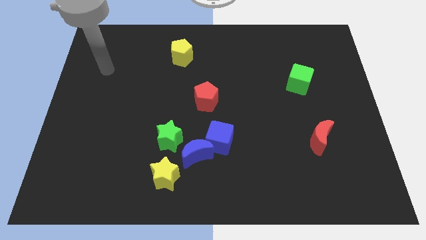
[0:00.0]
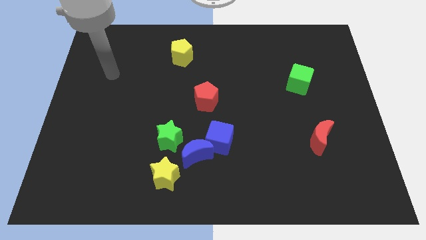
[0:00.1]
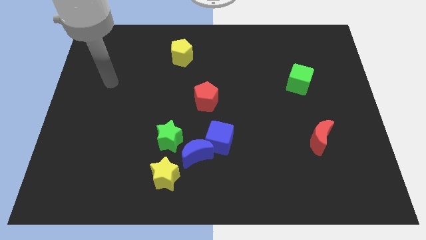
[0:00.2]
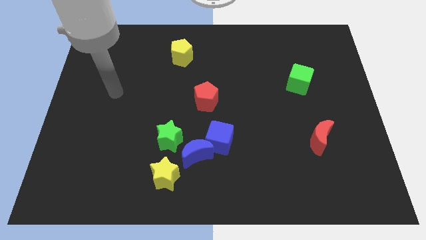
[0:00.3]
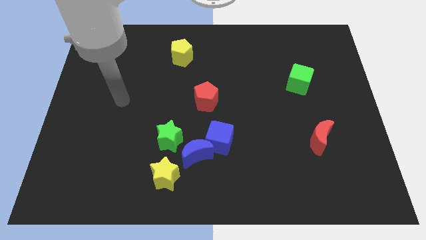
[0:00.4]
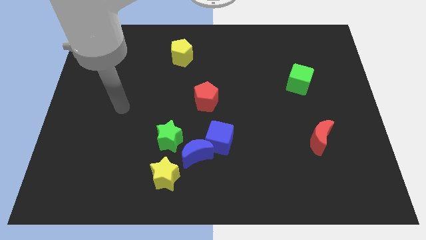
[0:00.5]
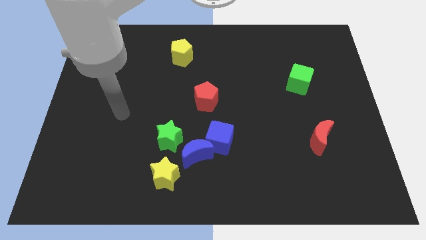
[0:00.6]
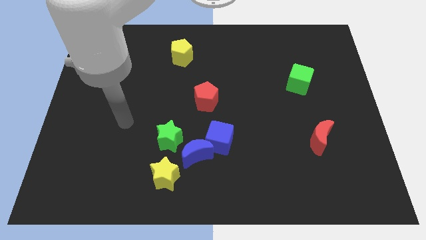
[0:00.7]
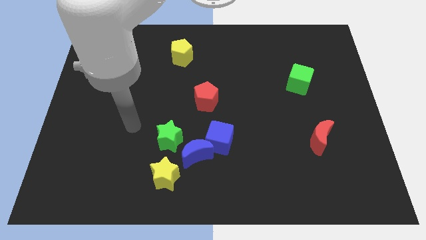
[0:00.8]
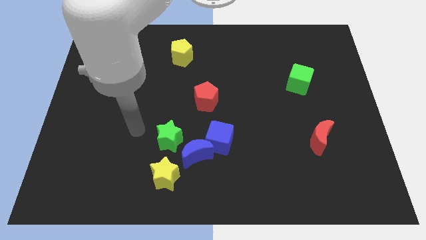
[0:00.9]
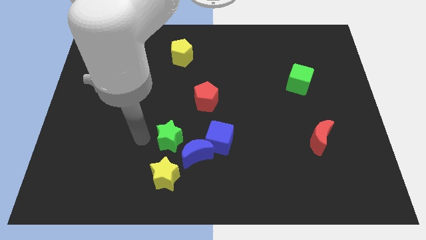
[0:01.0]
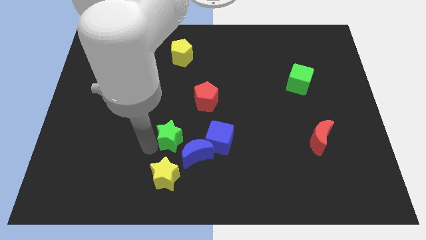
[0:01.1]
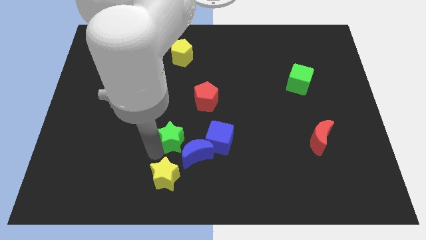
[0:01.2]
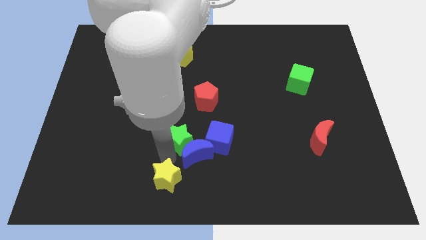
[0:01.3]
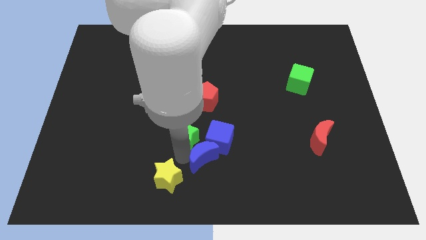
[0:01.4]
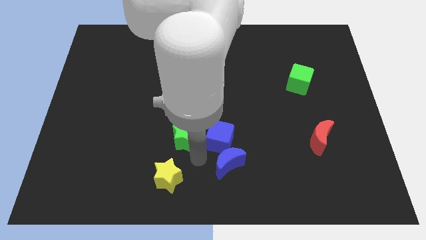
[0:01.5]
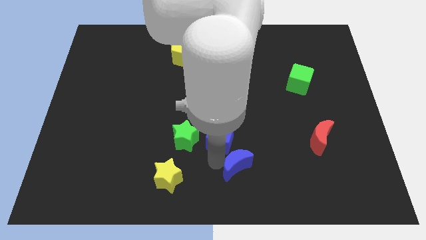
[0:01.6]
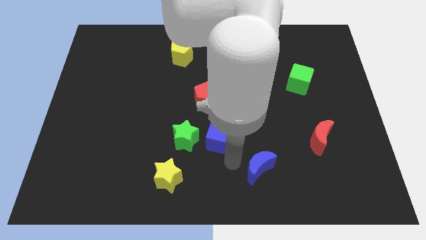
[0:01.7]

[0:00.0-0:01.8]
move the blue cube away from the blue moon

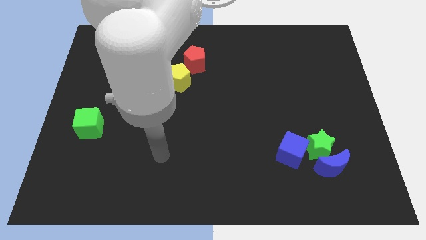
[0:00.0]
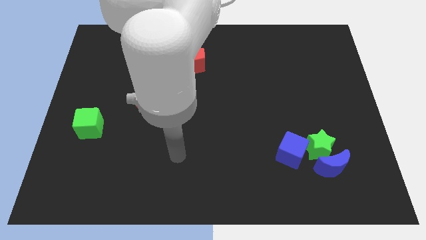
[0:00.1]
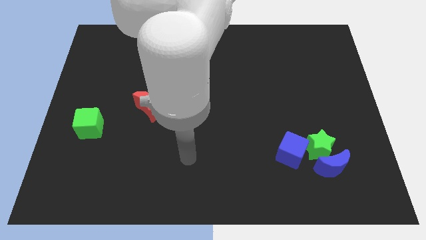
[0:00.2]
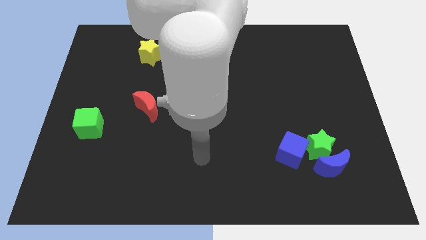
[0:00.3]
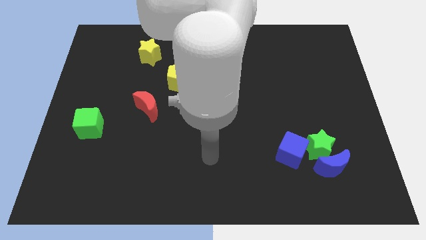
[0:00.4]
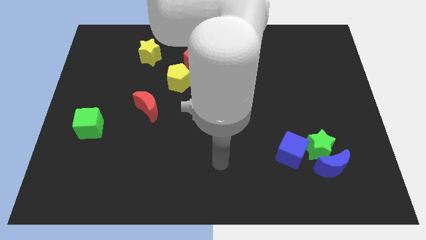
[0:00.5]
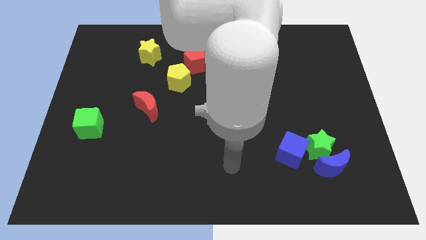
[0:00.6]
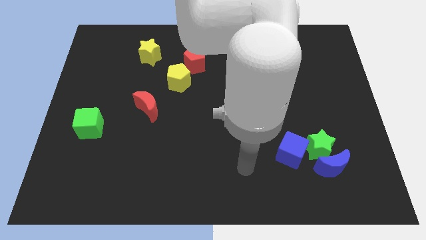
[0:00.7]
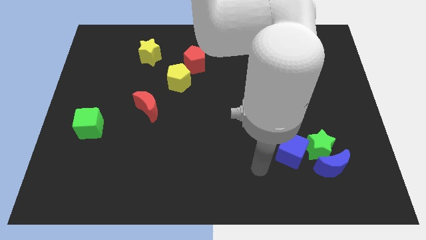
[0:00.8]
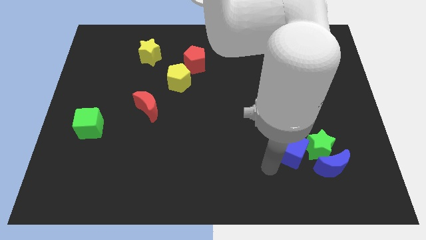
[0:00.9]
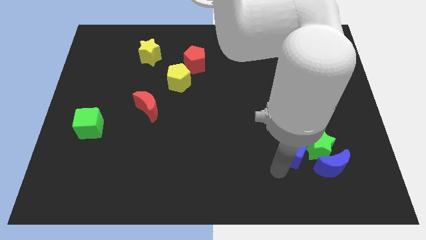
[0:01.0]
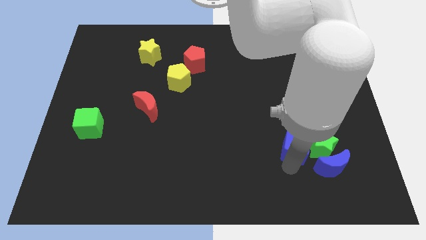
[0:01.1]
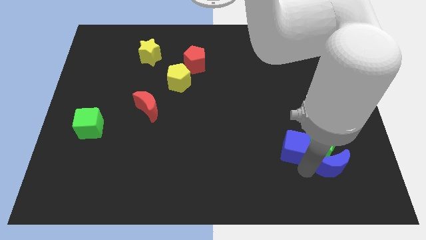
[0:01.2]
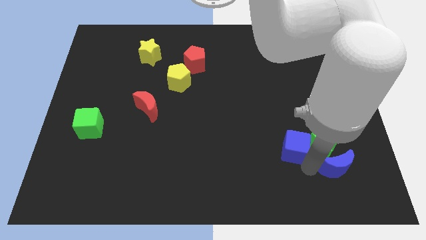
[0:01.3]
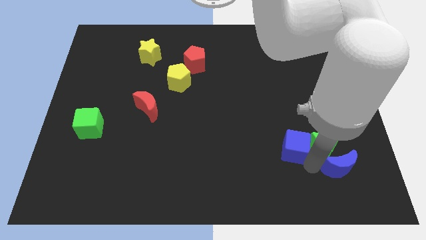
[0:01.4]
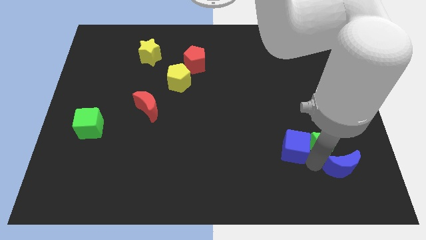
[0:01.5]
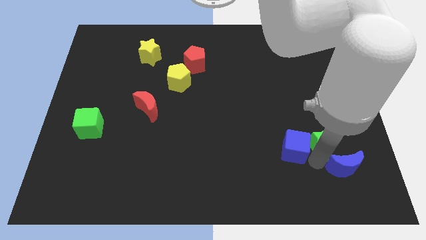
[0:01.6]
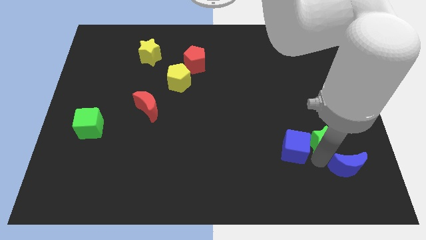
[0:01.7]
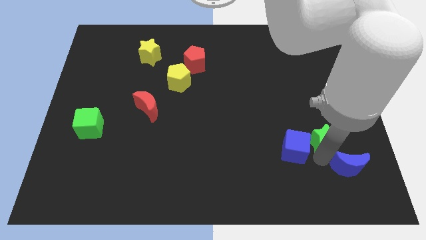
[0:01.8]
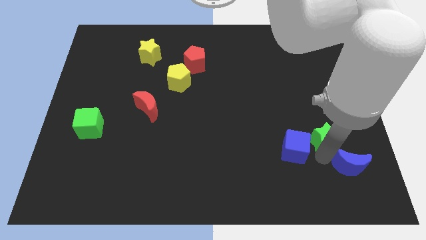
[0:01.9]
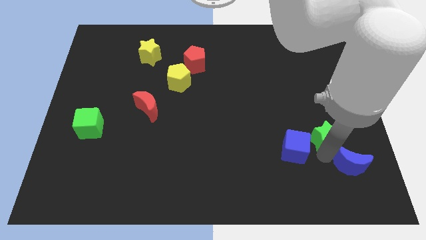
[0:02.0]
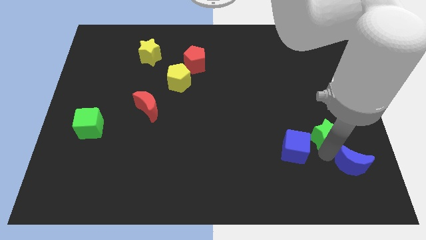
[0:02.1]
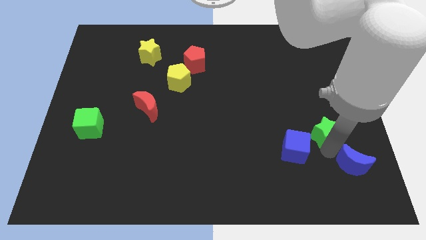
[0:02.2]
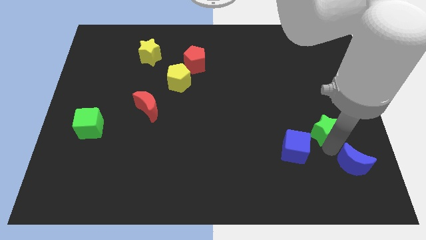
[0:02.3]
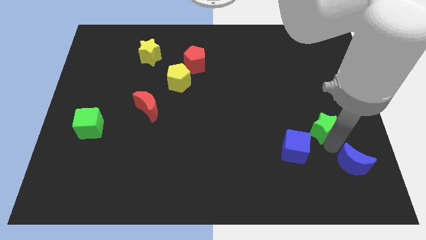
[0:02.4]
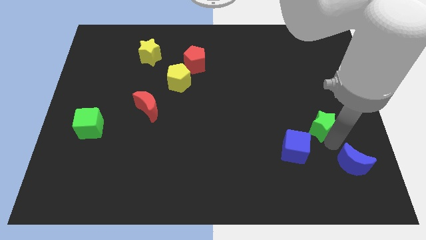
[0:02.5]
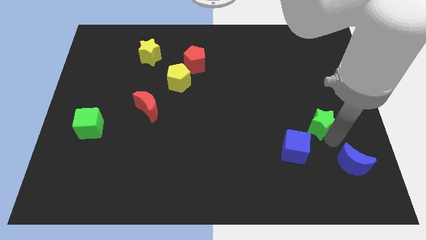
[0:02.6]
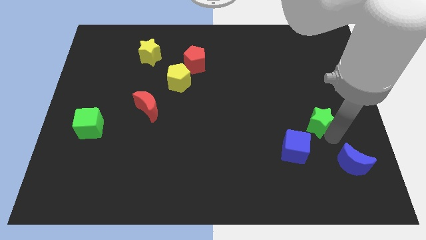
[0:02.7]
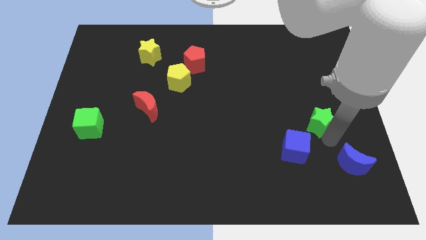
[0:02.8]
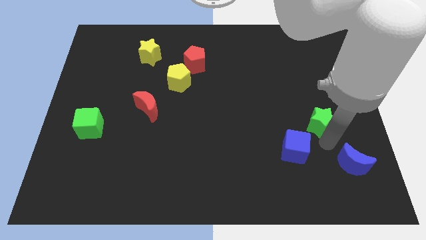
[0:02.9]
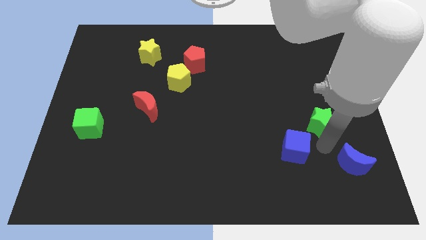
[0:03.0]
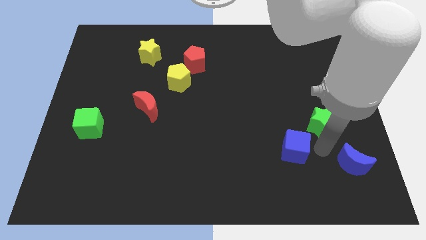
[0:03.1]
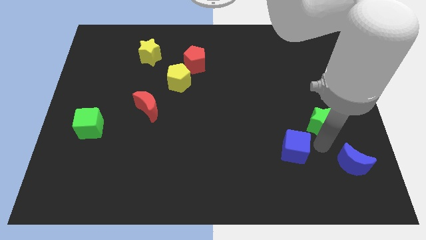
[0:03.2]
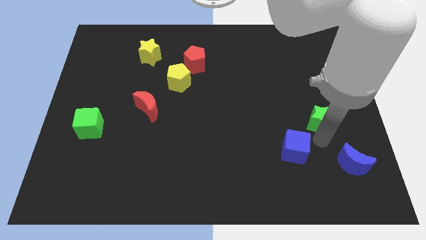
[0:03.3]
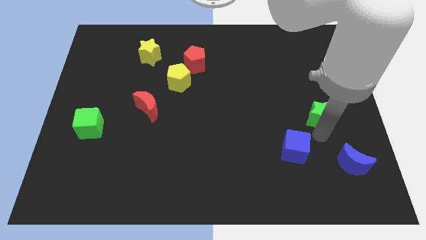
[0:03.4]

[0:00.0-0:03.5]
separate the green star from the blue moon and blue cube

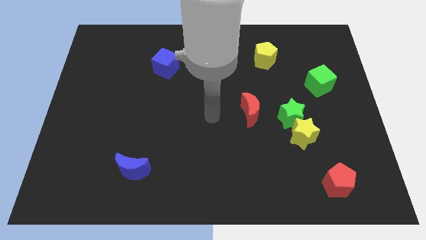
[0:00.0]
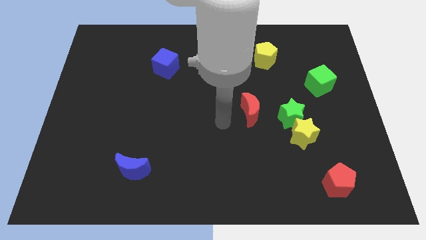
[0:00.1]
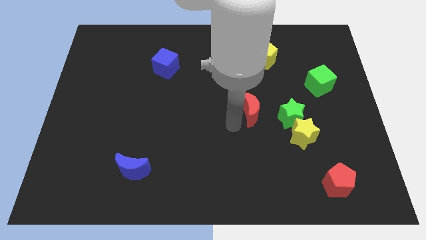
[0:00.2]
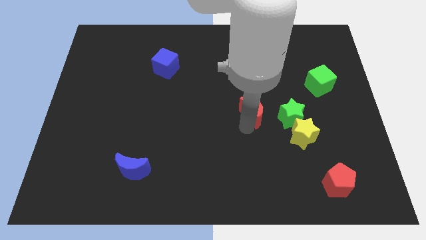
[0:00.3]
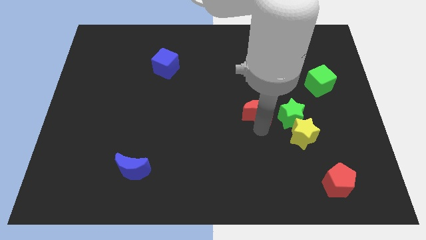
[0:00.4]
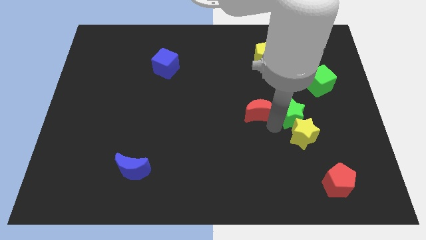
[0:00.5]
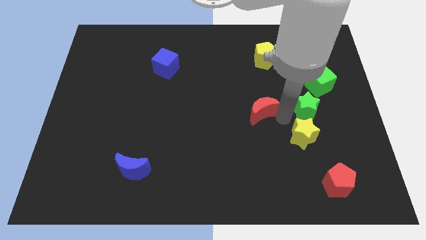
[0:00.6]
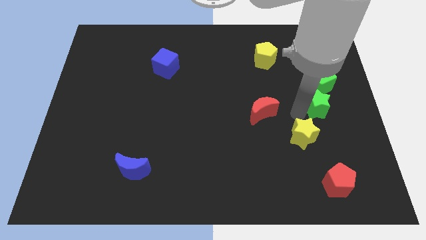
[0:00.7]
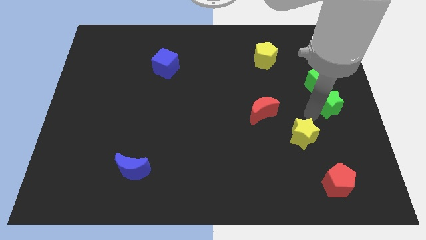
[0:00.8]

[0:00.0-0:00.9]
separate the yellow star from the green star

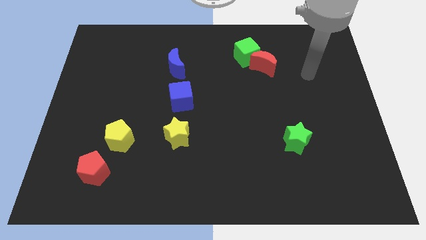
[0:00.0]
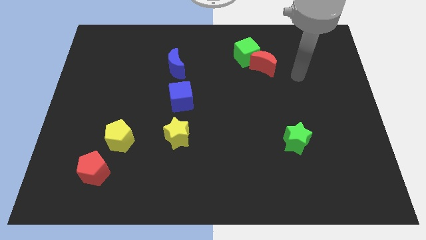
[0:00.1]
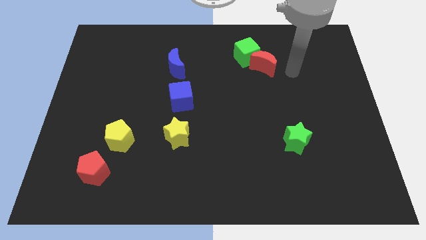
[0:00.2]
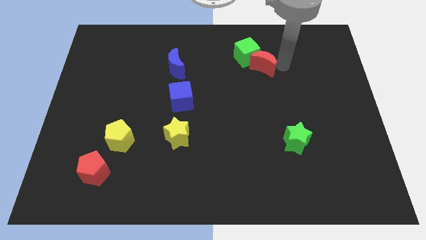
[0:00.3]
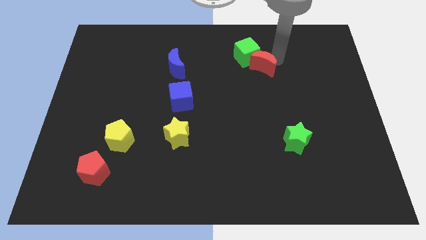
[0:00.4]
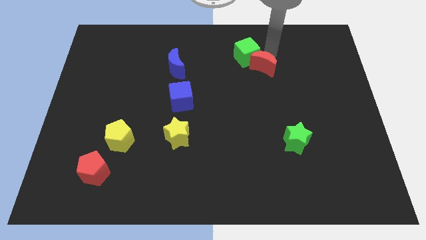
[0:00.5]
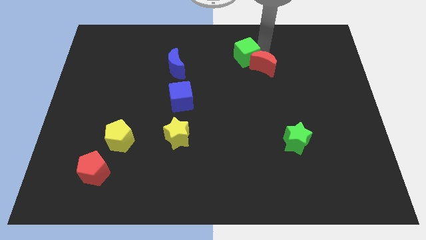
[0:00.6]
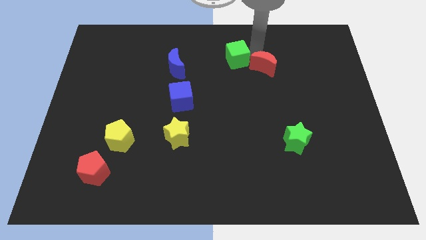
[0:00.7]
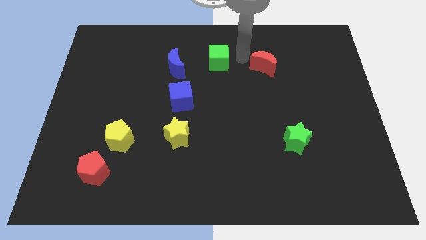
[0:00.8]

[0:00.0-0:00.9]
move the red moon away from the green cube

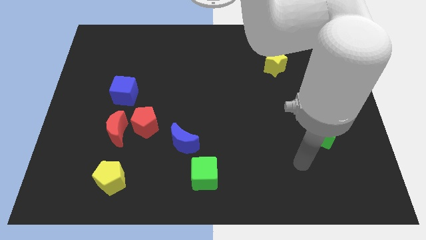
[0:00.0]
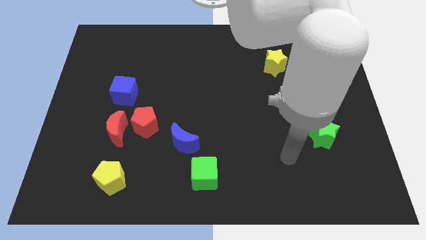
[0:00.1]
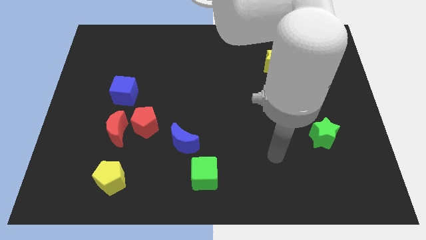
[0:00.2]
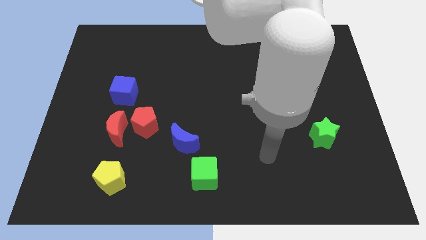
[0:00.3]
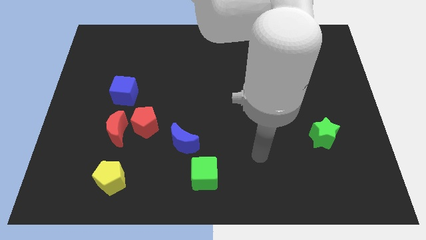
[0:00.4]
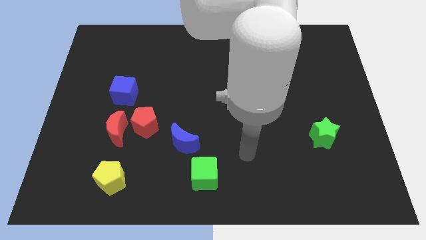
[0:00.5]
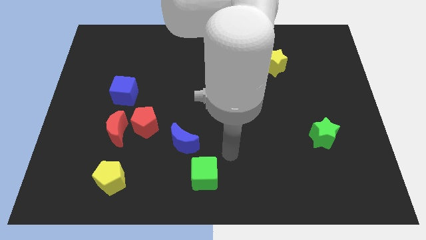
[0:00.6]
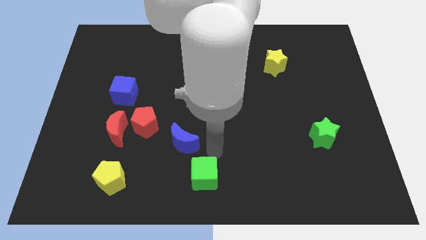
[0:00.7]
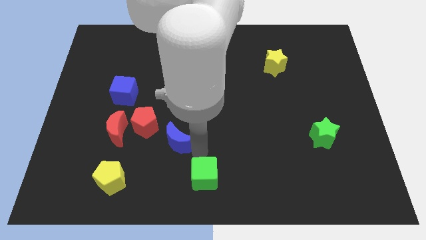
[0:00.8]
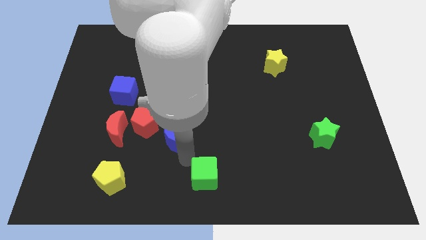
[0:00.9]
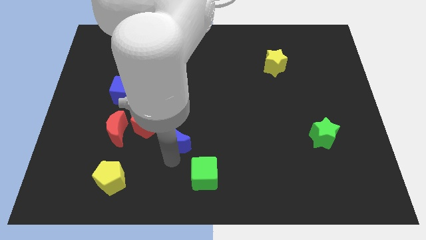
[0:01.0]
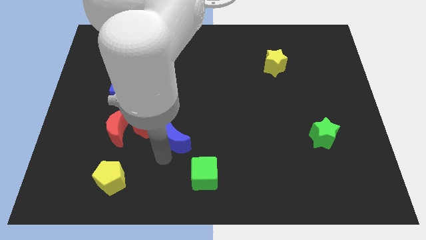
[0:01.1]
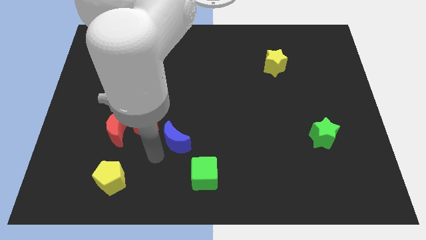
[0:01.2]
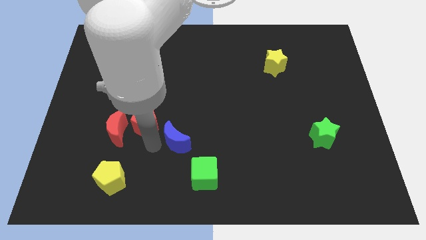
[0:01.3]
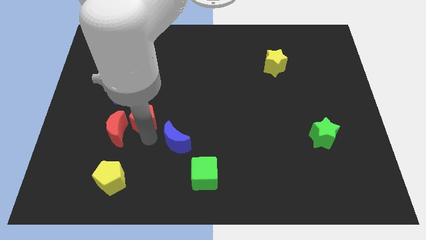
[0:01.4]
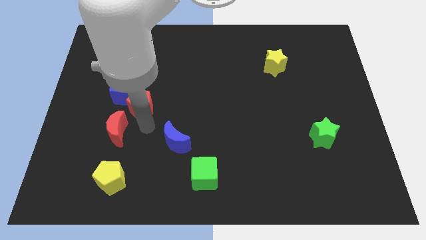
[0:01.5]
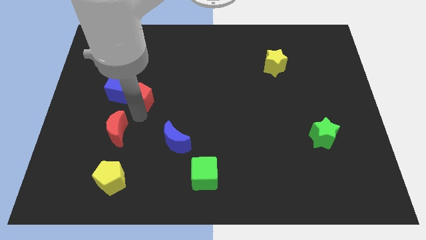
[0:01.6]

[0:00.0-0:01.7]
separate the red moon from the red pentagon

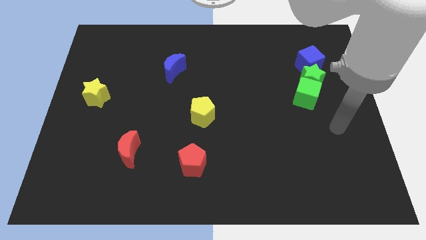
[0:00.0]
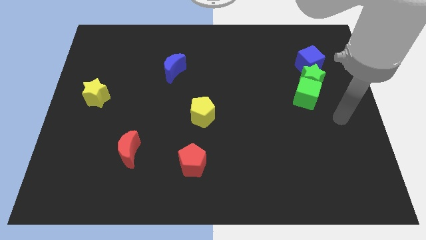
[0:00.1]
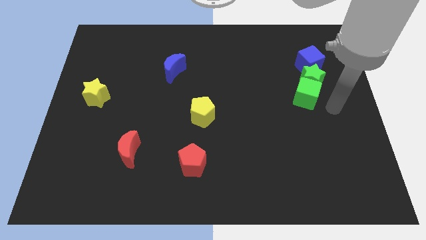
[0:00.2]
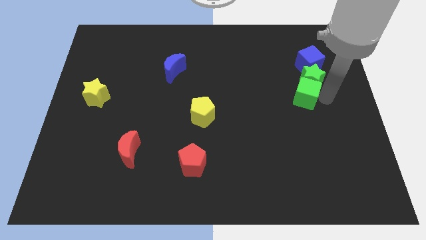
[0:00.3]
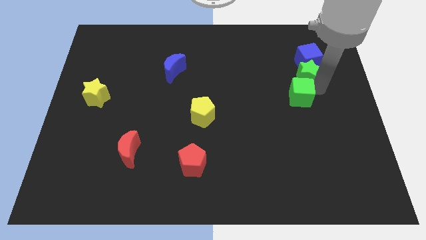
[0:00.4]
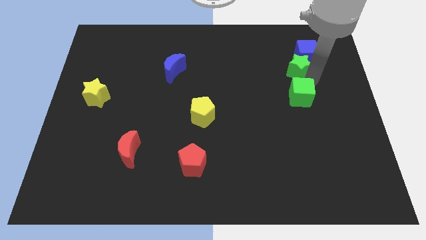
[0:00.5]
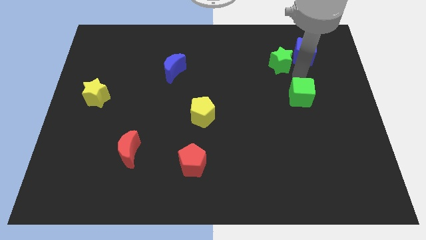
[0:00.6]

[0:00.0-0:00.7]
separate the green cube from the green star

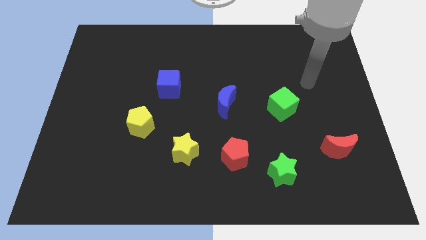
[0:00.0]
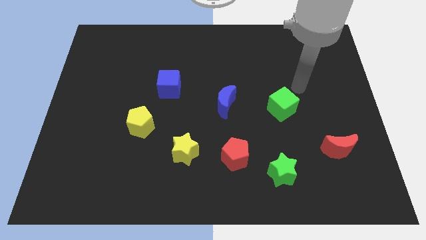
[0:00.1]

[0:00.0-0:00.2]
pull the red pentagon apart from the green star
